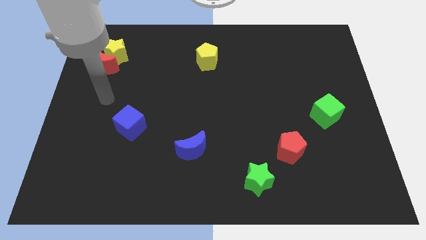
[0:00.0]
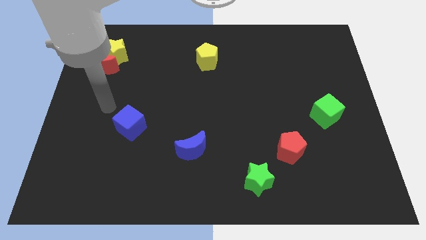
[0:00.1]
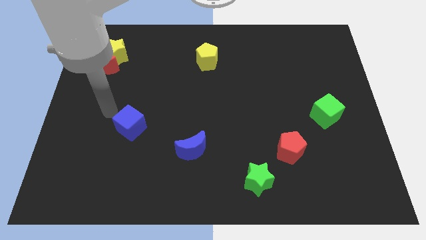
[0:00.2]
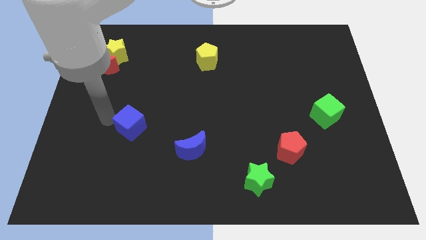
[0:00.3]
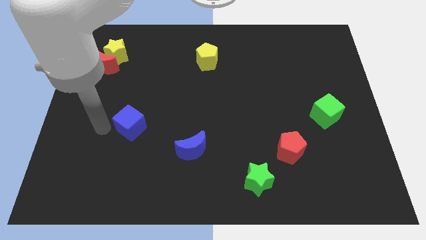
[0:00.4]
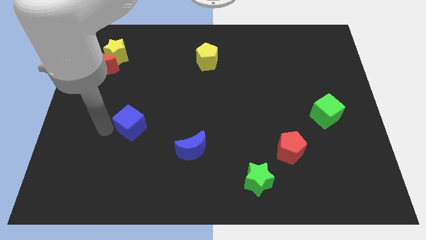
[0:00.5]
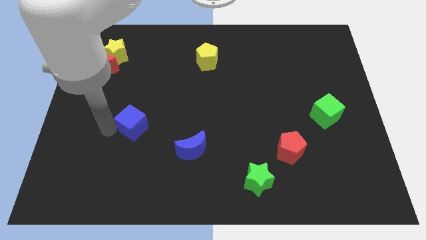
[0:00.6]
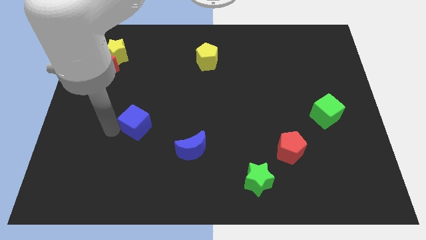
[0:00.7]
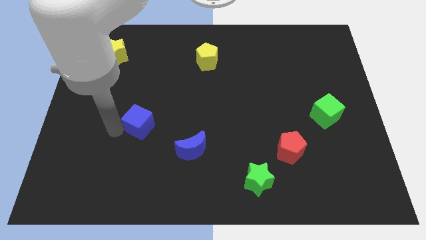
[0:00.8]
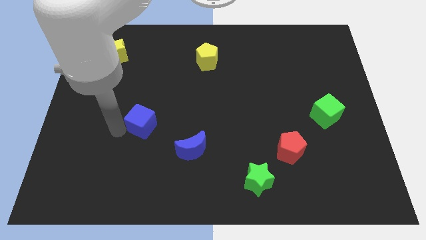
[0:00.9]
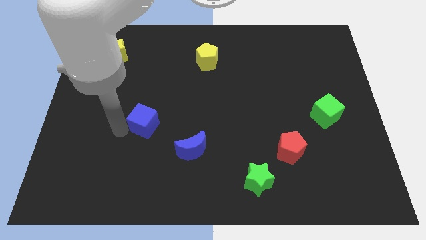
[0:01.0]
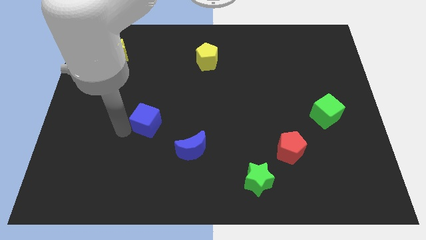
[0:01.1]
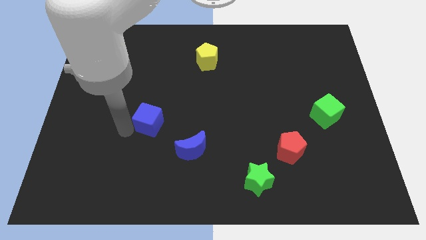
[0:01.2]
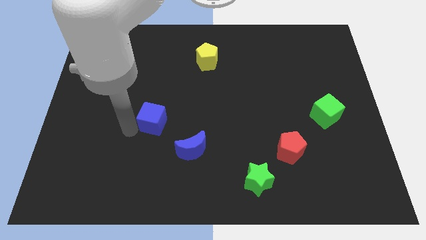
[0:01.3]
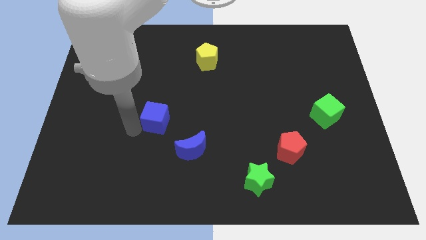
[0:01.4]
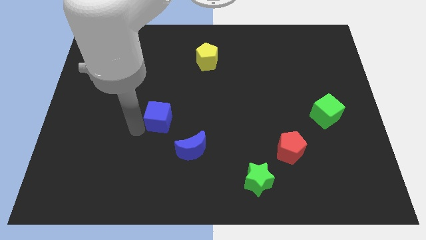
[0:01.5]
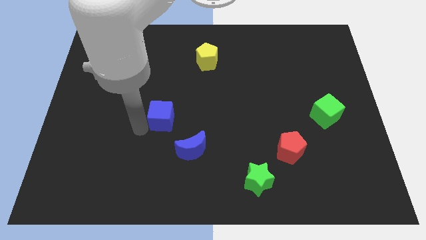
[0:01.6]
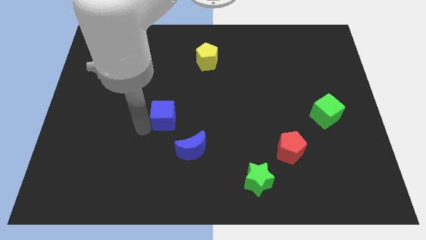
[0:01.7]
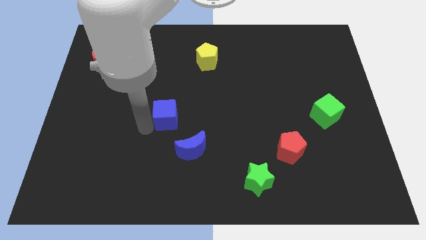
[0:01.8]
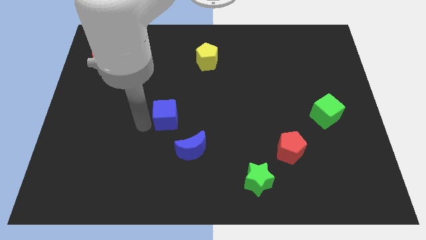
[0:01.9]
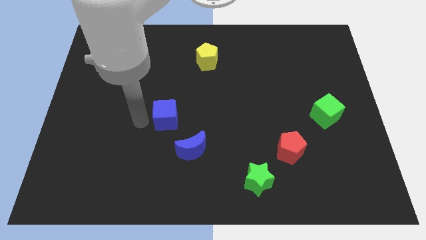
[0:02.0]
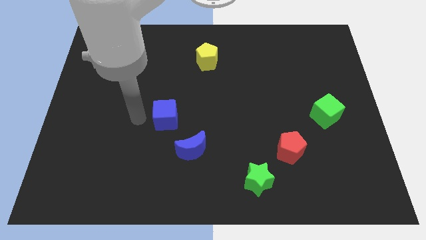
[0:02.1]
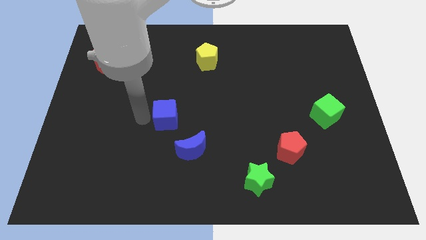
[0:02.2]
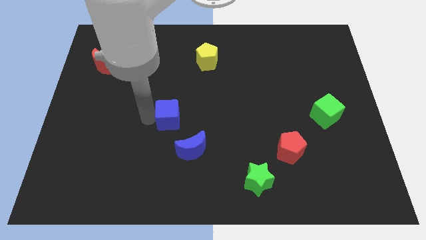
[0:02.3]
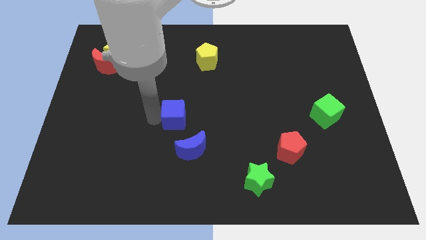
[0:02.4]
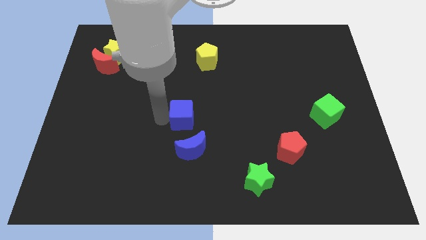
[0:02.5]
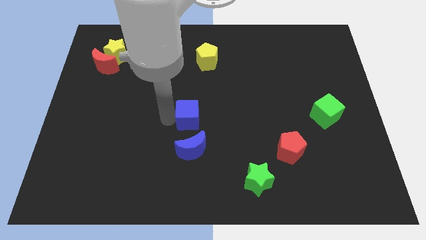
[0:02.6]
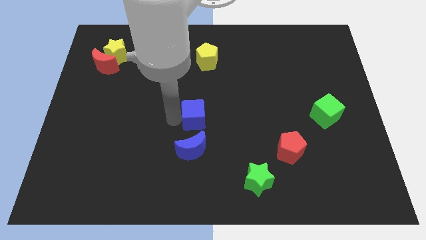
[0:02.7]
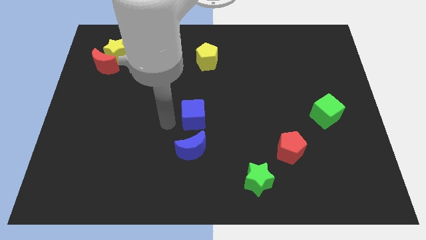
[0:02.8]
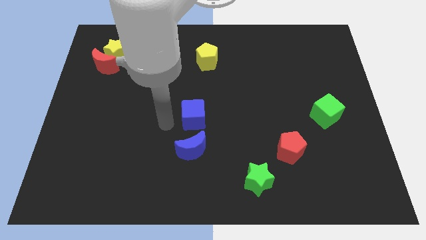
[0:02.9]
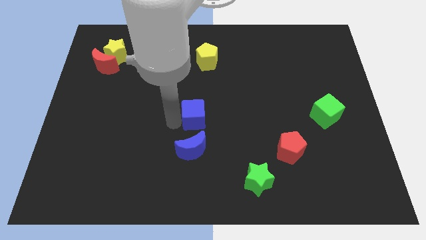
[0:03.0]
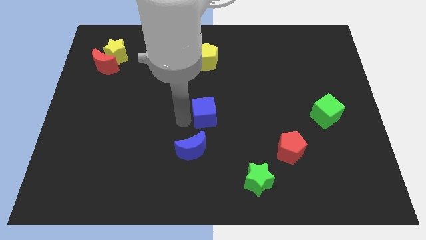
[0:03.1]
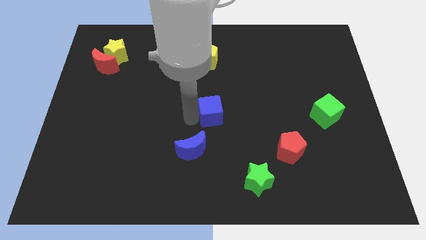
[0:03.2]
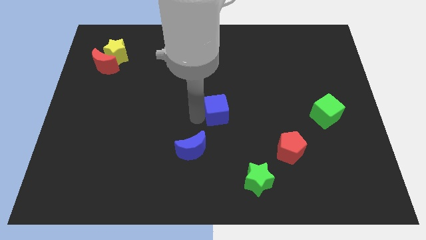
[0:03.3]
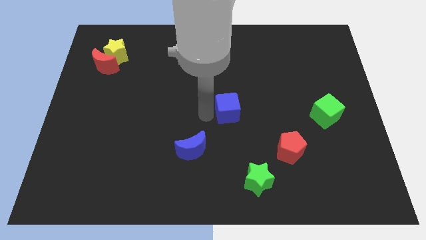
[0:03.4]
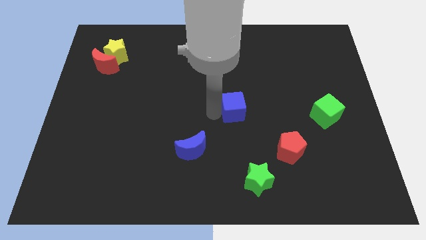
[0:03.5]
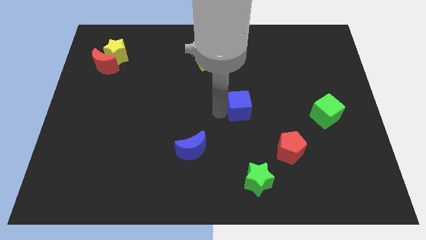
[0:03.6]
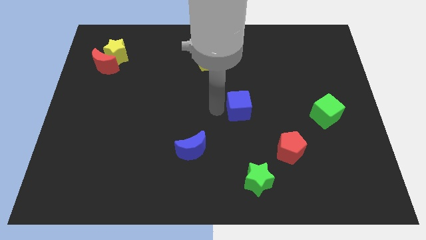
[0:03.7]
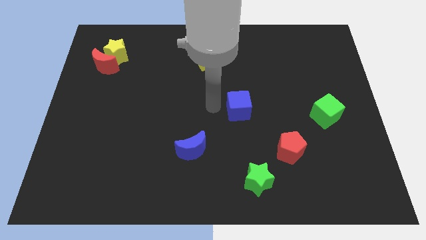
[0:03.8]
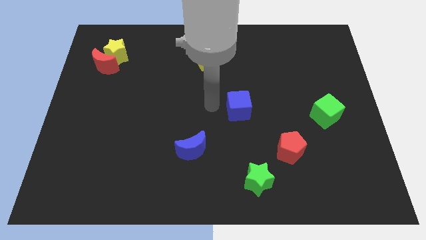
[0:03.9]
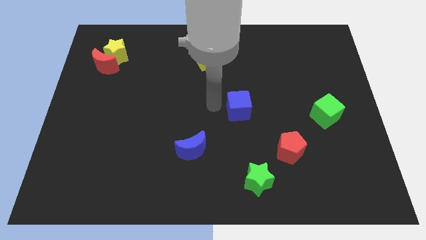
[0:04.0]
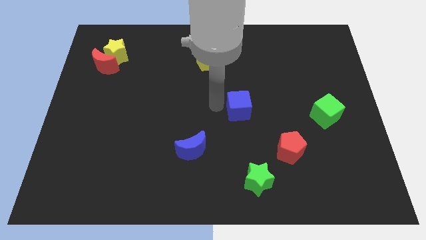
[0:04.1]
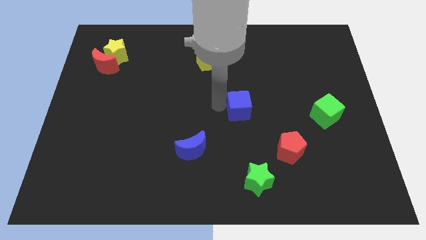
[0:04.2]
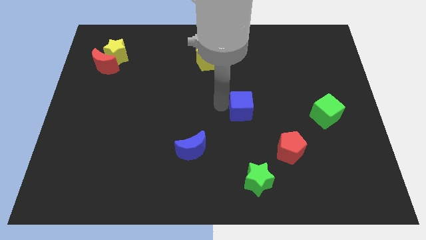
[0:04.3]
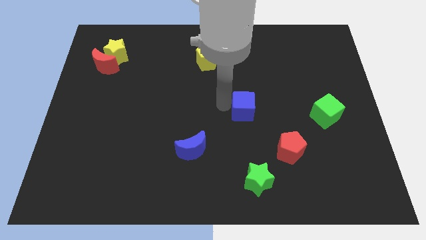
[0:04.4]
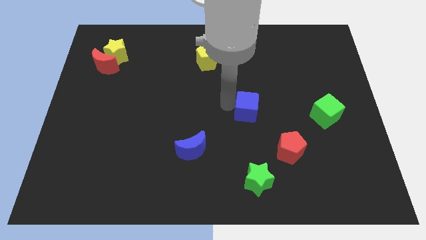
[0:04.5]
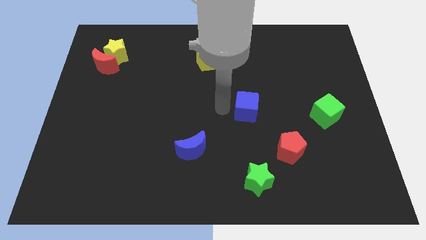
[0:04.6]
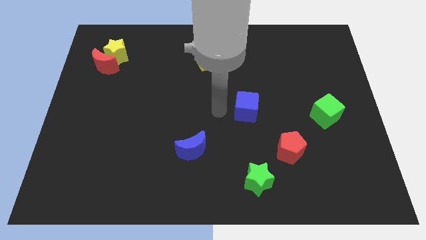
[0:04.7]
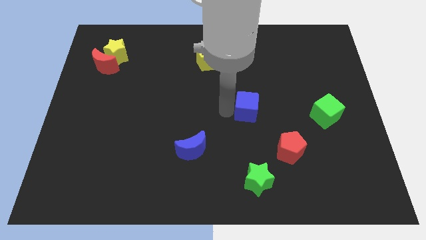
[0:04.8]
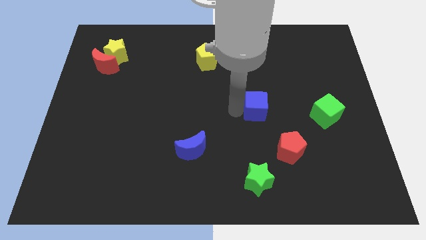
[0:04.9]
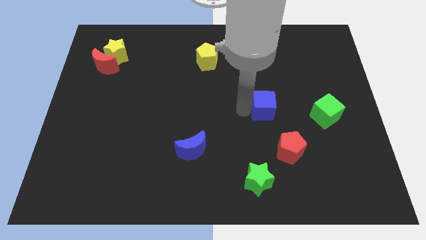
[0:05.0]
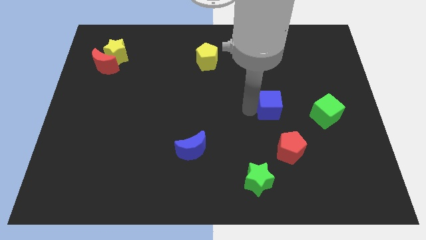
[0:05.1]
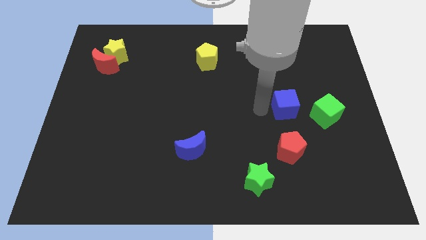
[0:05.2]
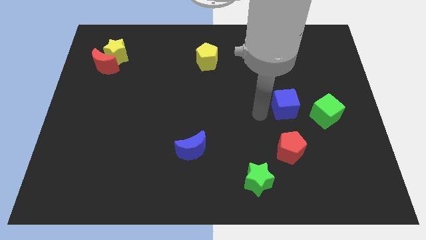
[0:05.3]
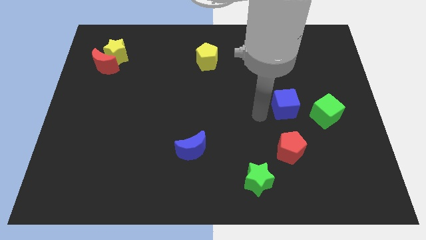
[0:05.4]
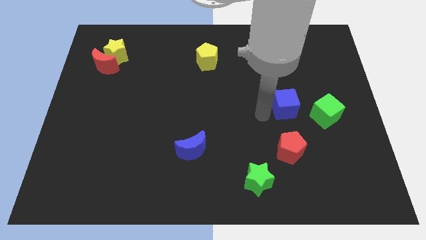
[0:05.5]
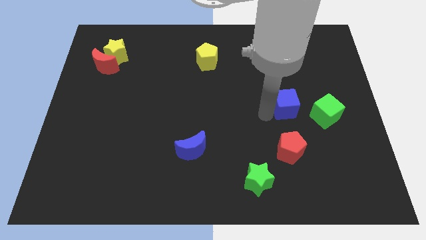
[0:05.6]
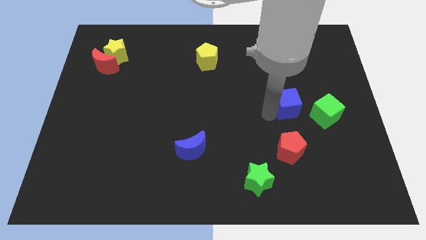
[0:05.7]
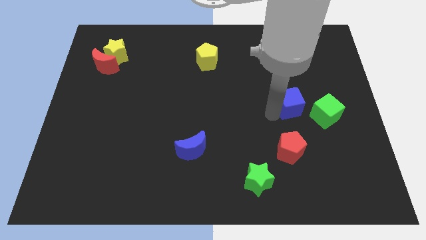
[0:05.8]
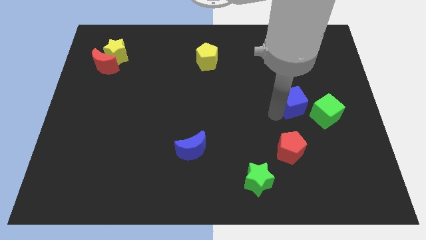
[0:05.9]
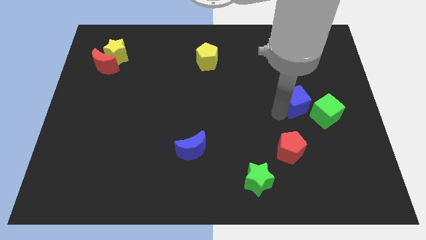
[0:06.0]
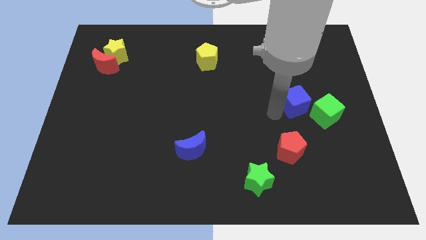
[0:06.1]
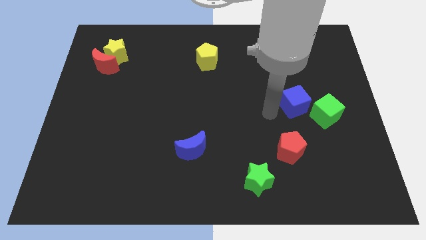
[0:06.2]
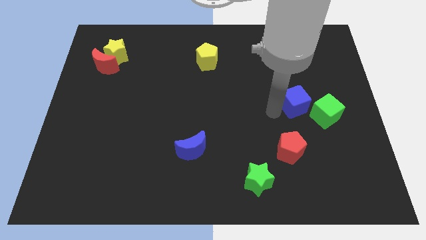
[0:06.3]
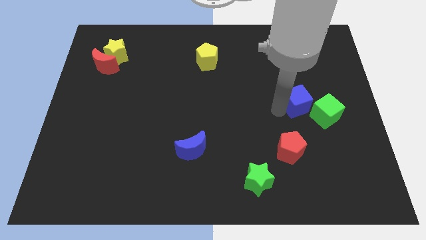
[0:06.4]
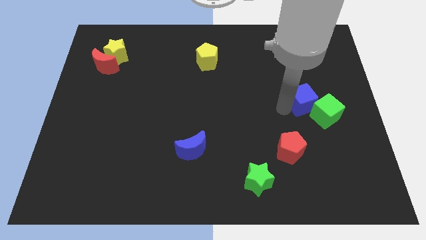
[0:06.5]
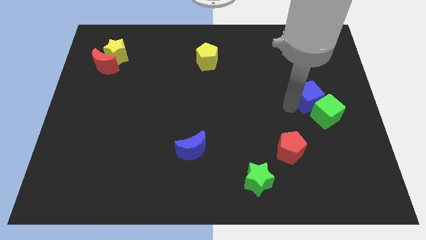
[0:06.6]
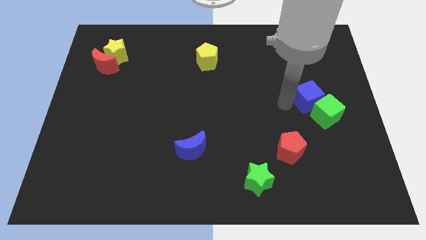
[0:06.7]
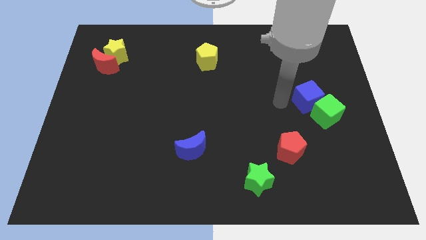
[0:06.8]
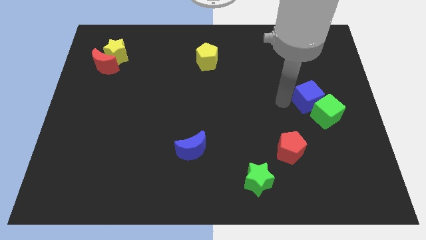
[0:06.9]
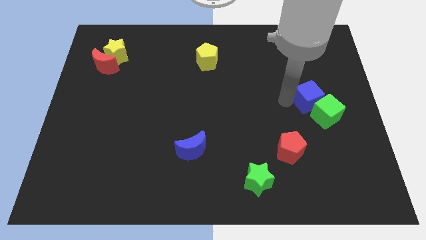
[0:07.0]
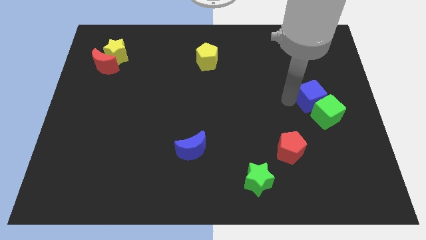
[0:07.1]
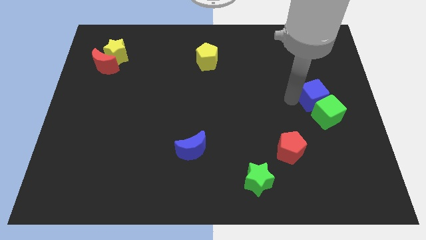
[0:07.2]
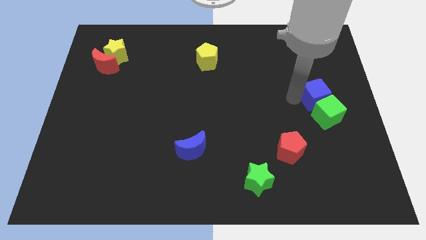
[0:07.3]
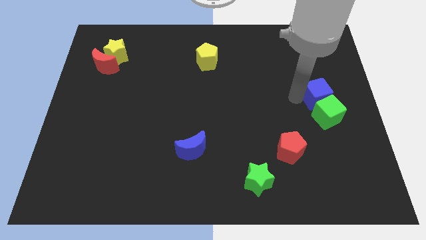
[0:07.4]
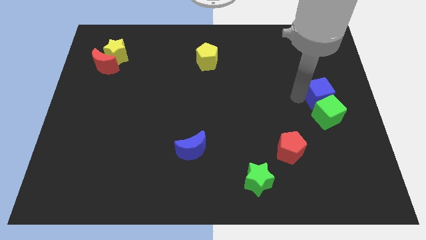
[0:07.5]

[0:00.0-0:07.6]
put the blue cube to the right side of the board
